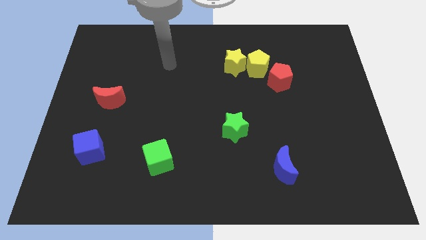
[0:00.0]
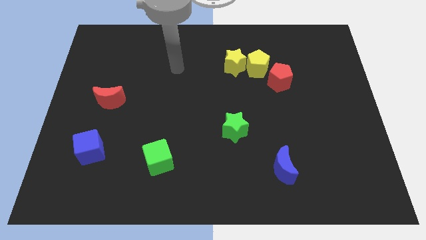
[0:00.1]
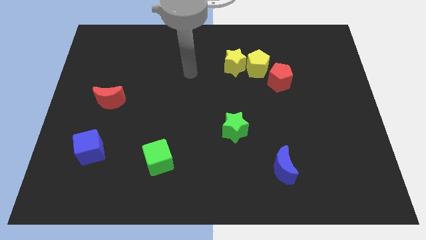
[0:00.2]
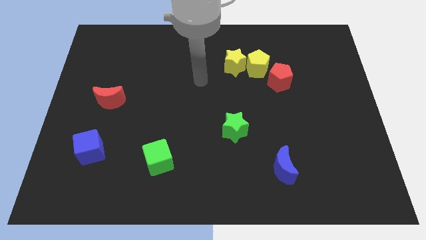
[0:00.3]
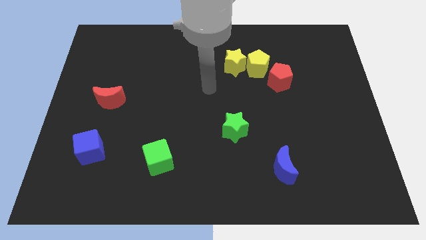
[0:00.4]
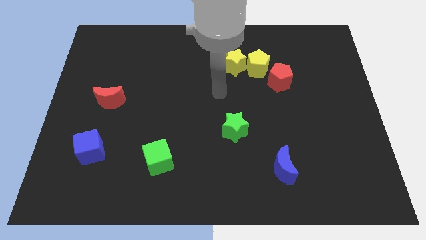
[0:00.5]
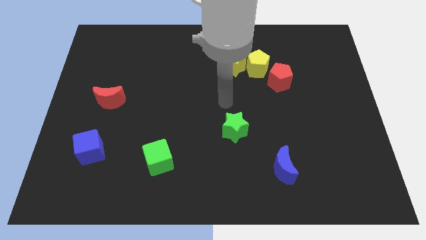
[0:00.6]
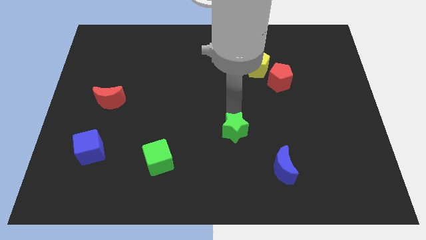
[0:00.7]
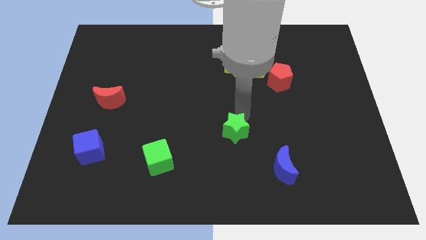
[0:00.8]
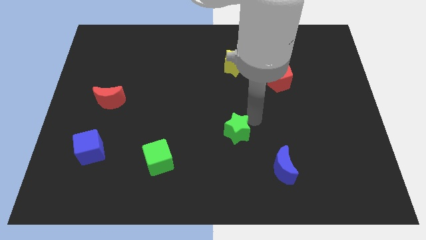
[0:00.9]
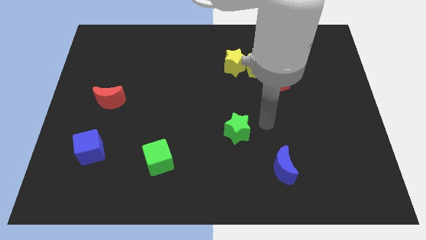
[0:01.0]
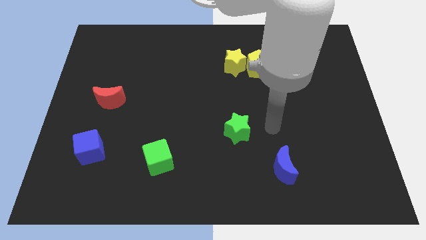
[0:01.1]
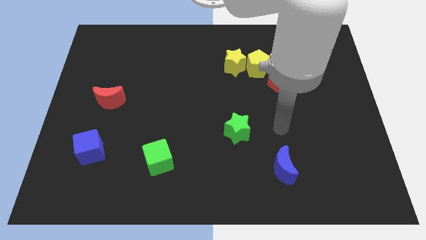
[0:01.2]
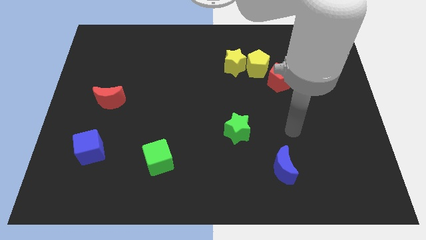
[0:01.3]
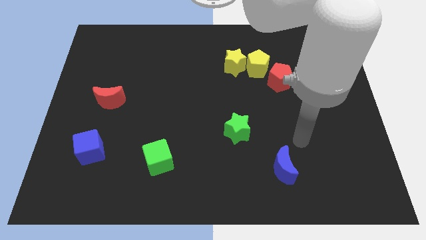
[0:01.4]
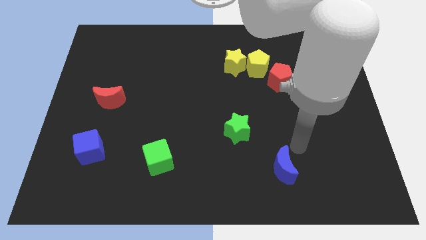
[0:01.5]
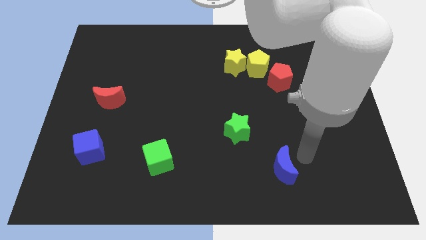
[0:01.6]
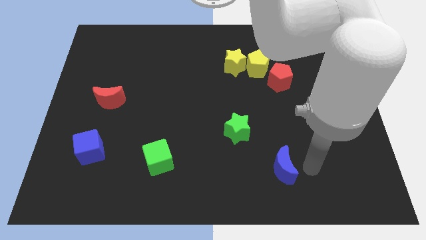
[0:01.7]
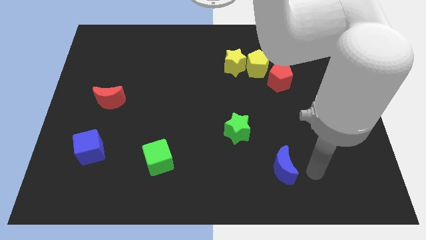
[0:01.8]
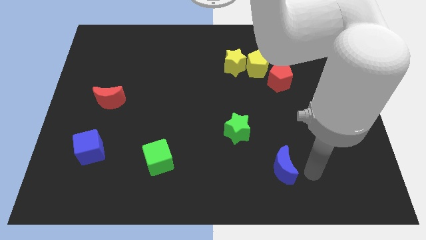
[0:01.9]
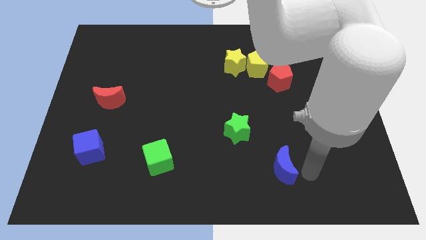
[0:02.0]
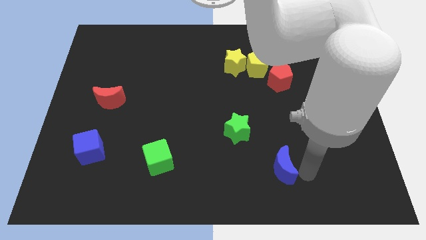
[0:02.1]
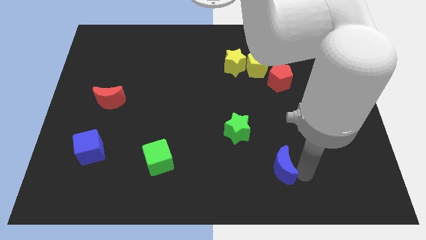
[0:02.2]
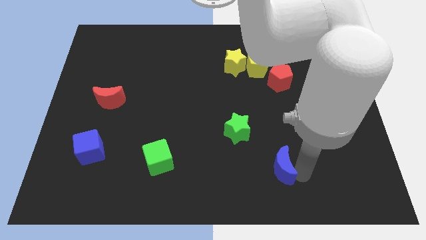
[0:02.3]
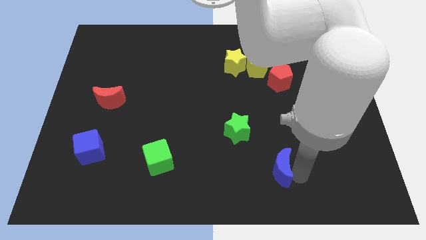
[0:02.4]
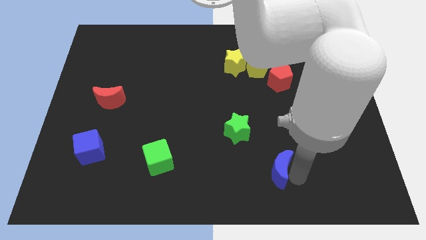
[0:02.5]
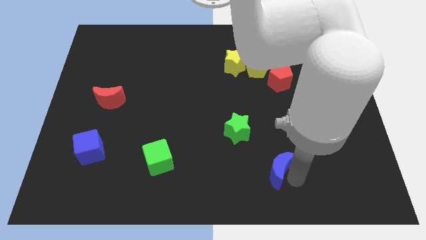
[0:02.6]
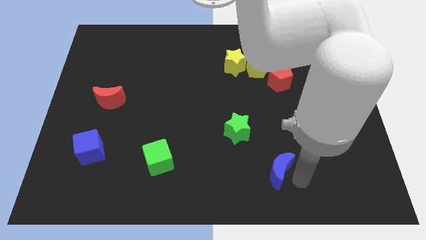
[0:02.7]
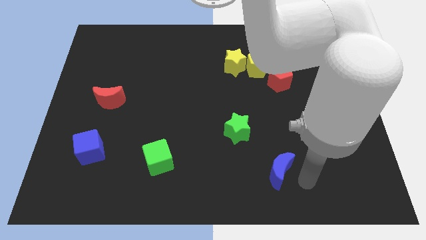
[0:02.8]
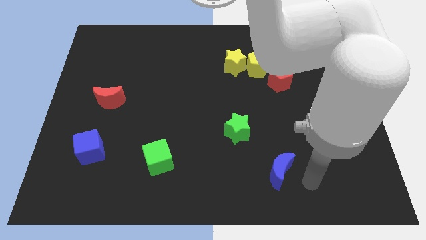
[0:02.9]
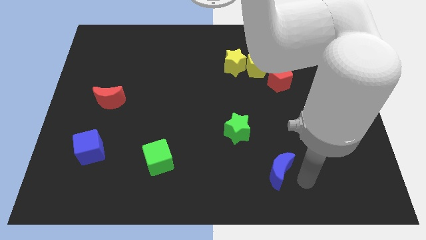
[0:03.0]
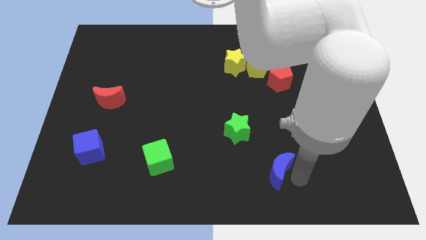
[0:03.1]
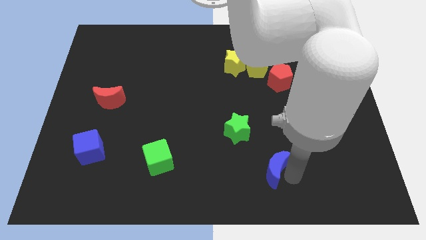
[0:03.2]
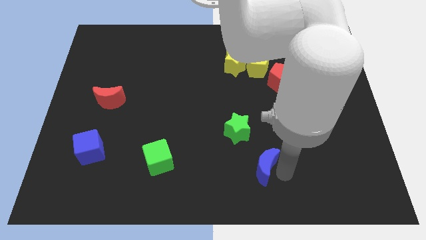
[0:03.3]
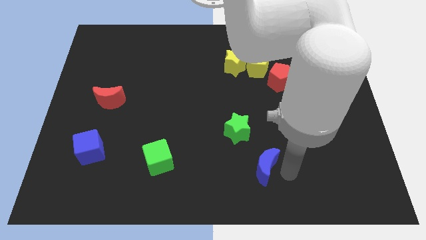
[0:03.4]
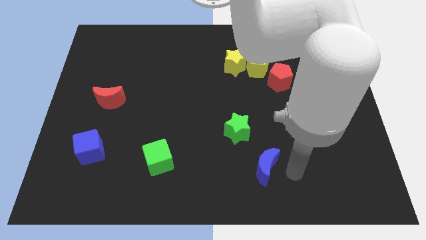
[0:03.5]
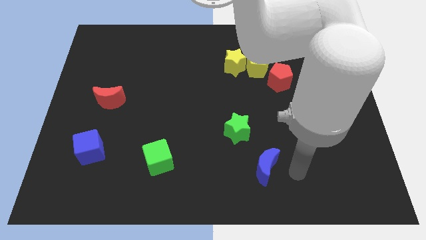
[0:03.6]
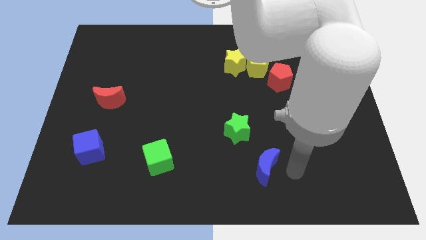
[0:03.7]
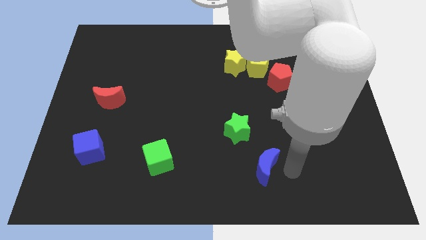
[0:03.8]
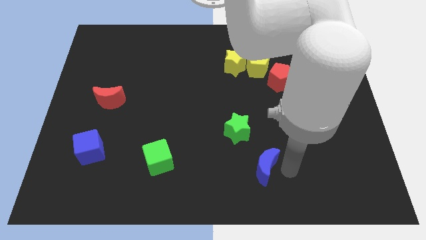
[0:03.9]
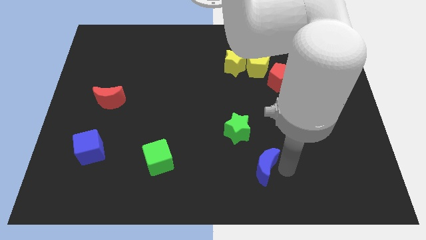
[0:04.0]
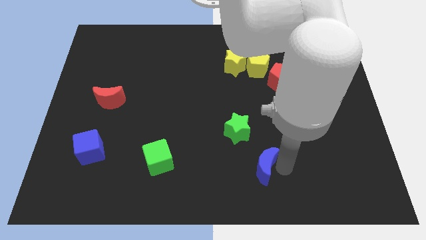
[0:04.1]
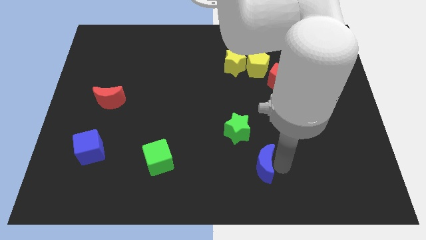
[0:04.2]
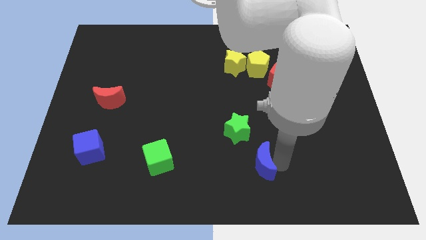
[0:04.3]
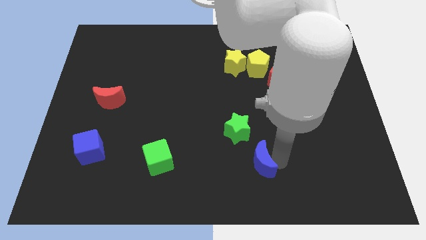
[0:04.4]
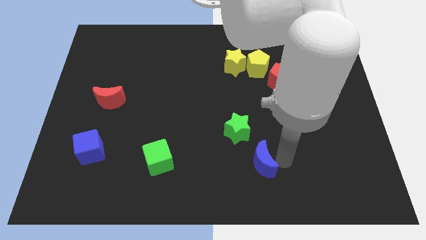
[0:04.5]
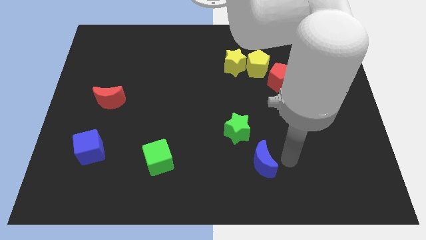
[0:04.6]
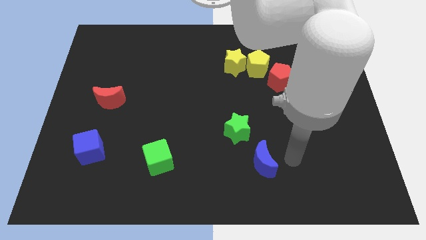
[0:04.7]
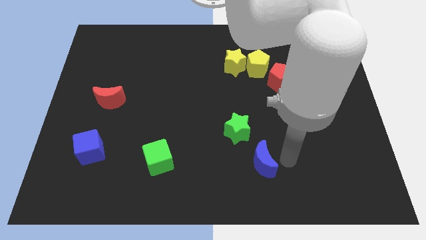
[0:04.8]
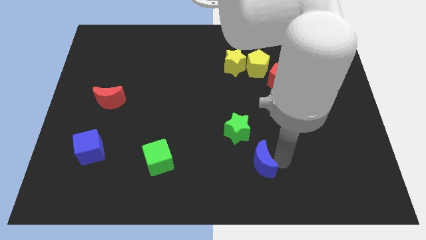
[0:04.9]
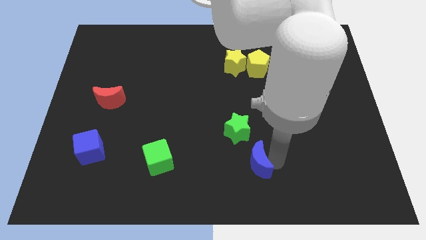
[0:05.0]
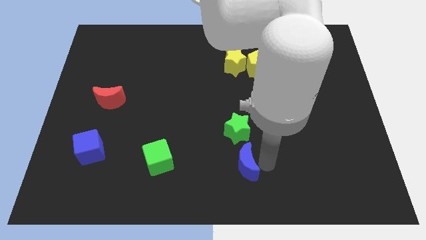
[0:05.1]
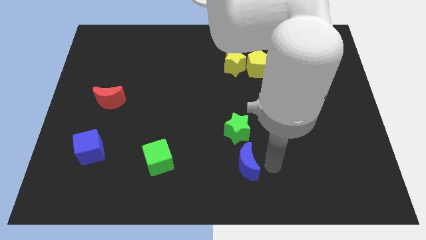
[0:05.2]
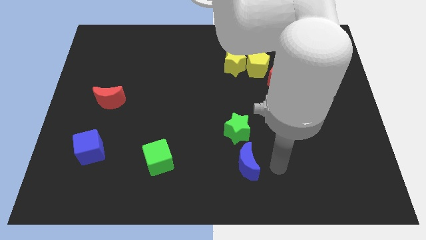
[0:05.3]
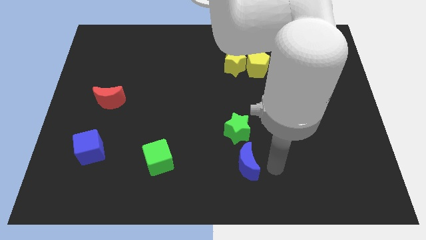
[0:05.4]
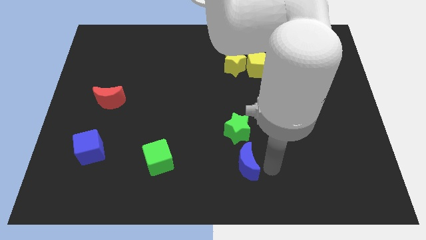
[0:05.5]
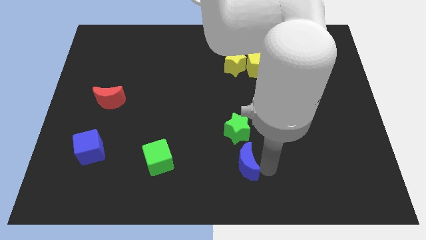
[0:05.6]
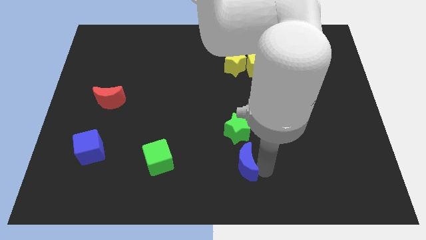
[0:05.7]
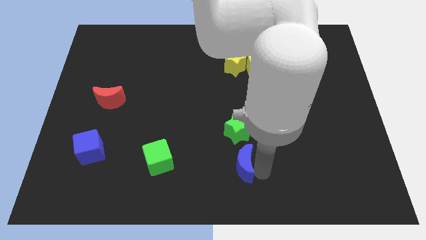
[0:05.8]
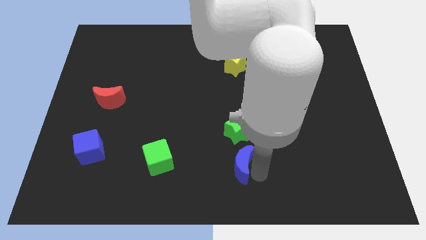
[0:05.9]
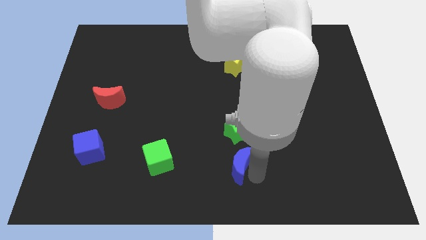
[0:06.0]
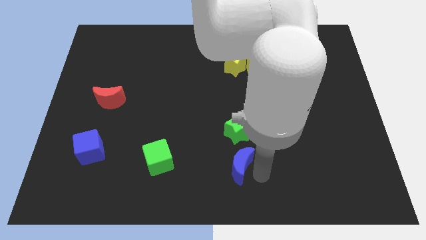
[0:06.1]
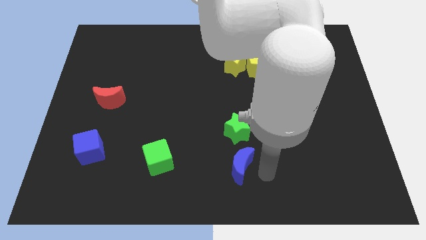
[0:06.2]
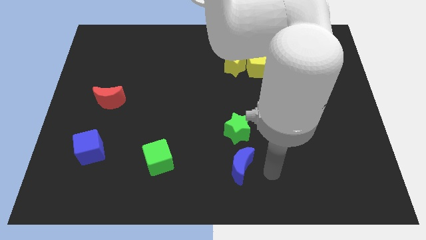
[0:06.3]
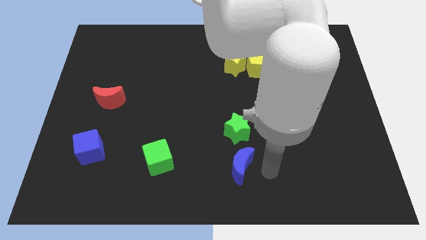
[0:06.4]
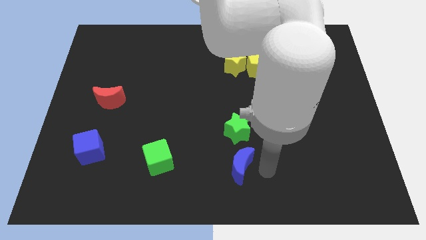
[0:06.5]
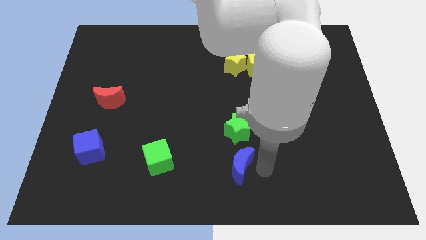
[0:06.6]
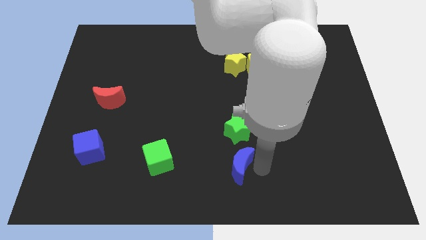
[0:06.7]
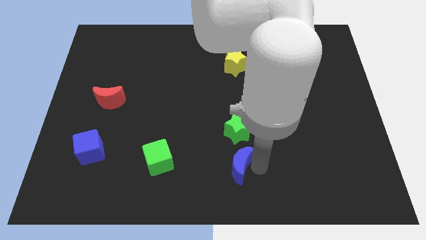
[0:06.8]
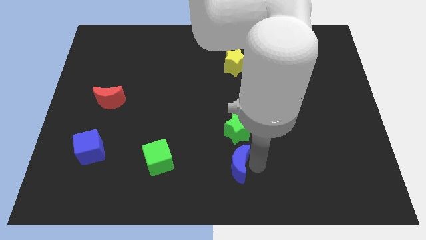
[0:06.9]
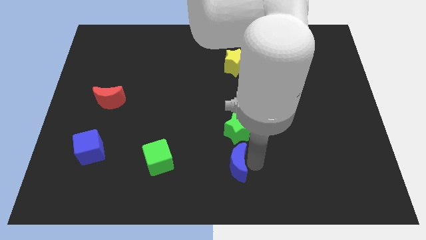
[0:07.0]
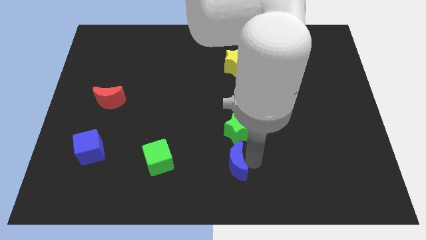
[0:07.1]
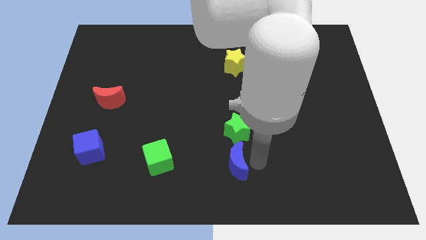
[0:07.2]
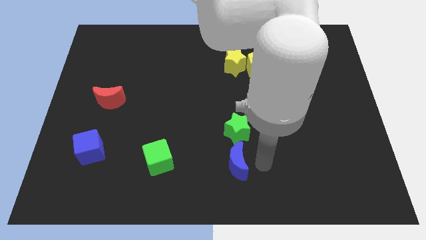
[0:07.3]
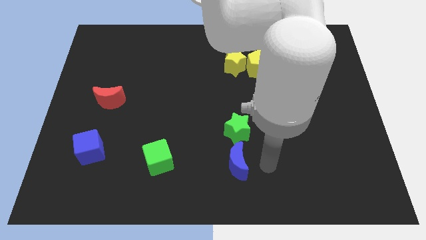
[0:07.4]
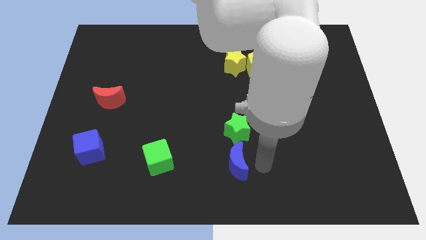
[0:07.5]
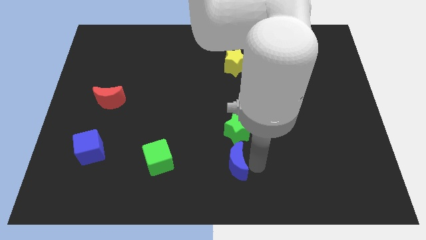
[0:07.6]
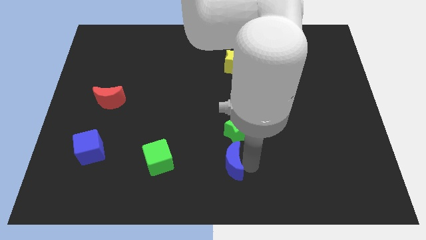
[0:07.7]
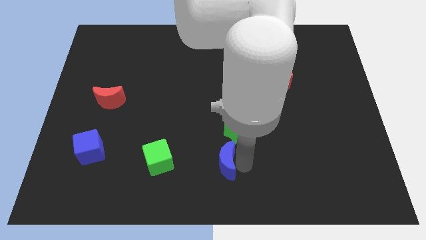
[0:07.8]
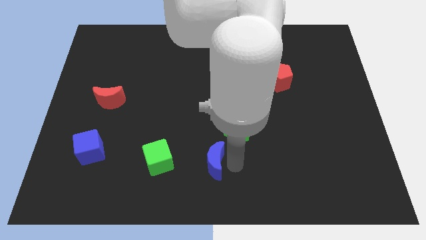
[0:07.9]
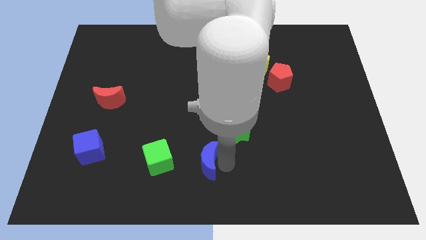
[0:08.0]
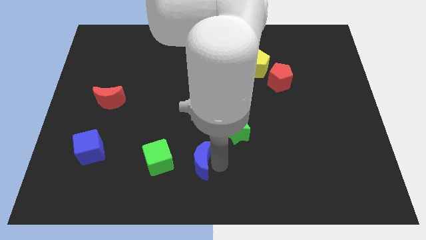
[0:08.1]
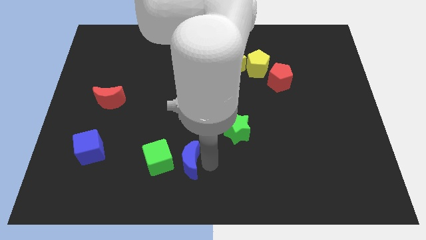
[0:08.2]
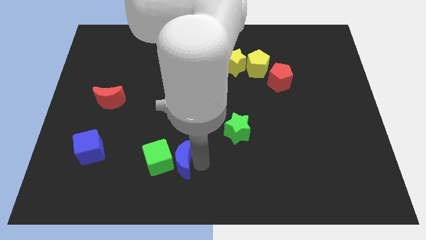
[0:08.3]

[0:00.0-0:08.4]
move the blue moon next to the green cube

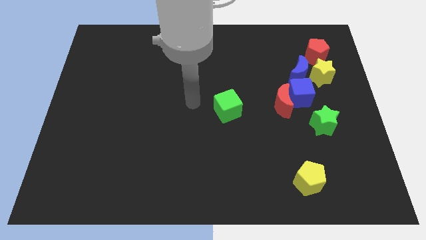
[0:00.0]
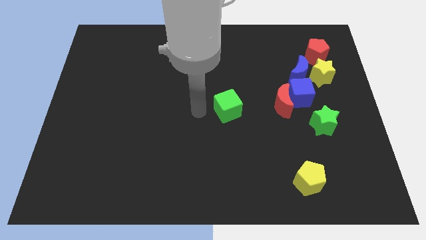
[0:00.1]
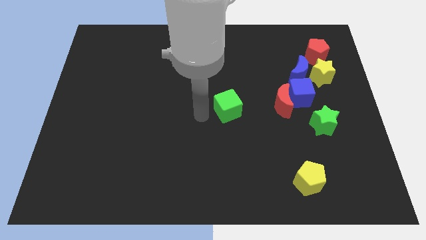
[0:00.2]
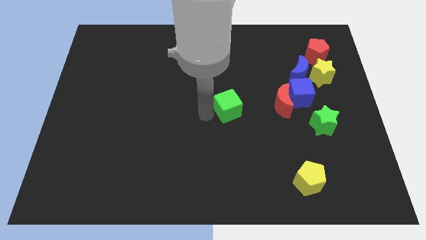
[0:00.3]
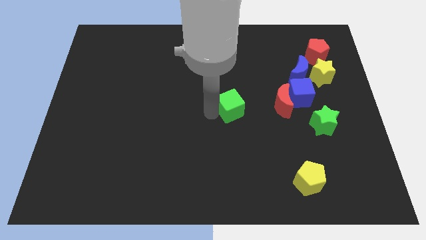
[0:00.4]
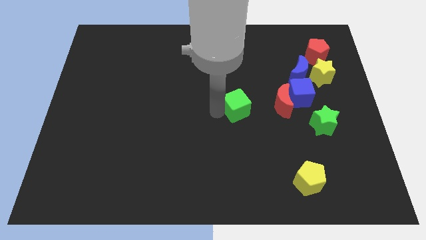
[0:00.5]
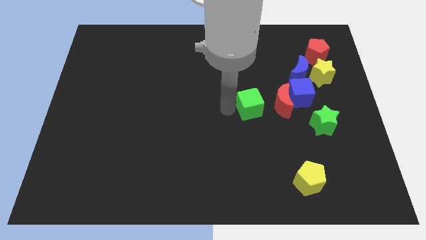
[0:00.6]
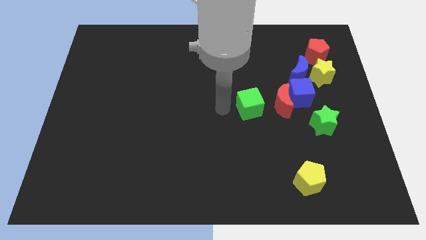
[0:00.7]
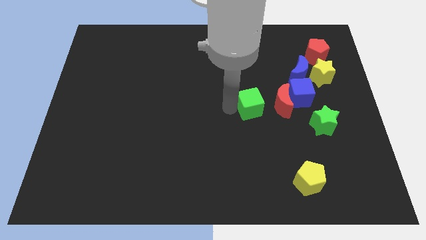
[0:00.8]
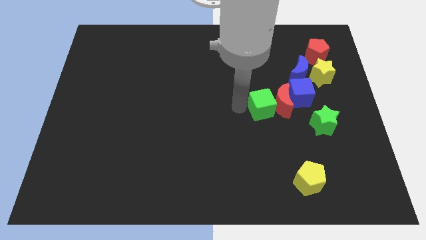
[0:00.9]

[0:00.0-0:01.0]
slide the green cube towards the red moon
